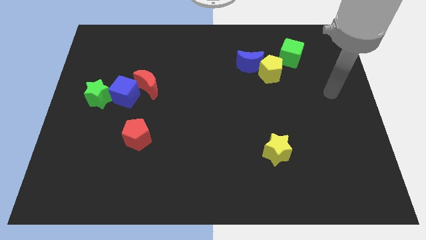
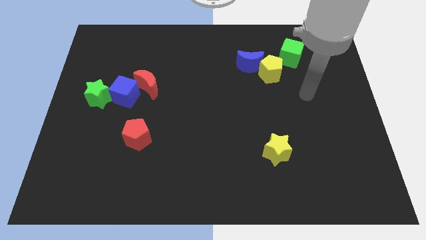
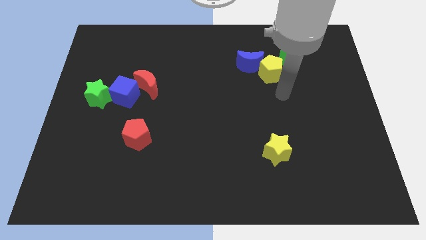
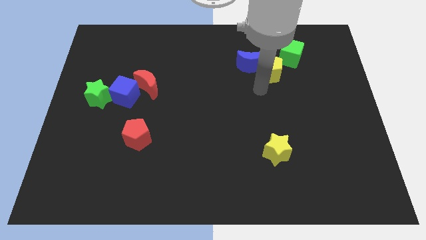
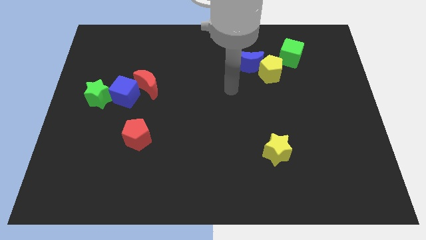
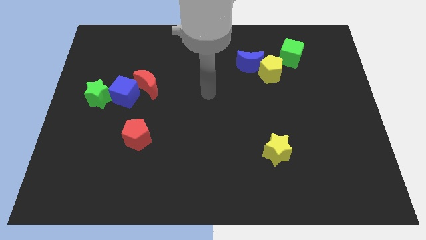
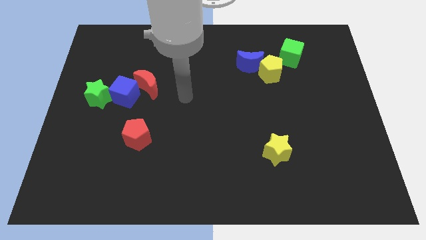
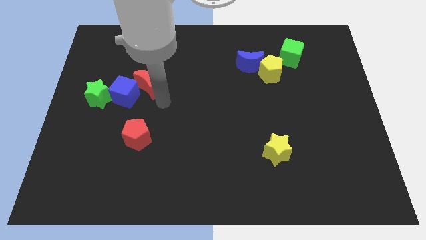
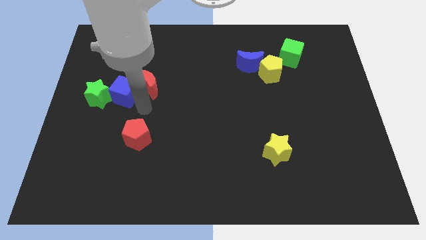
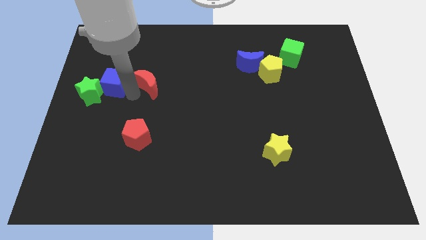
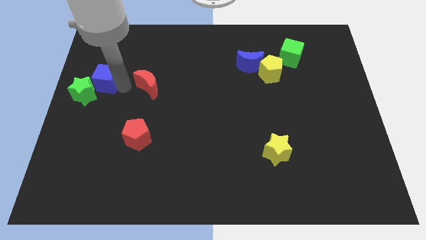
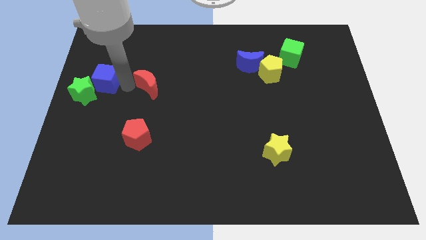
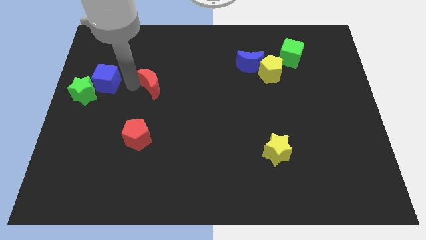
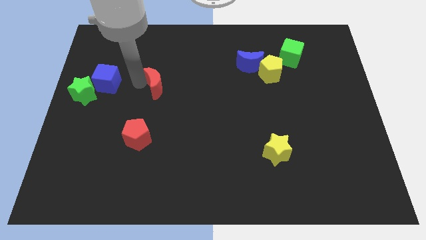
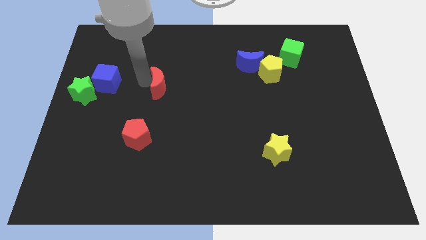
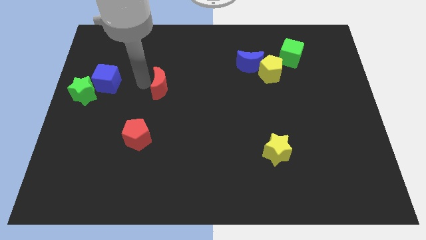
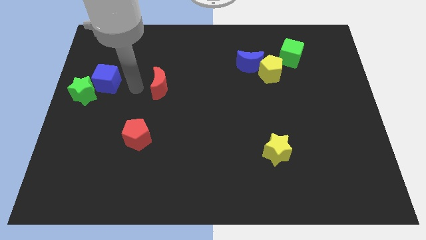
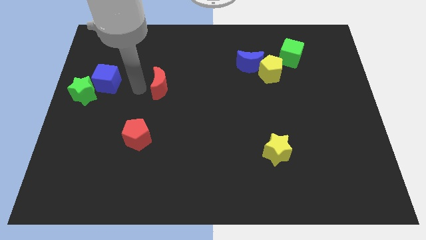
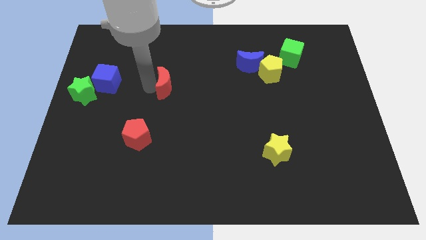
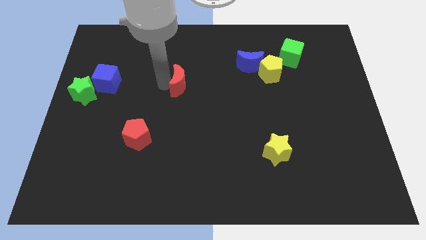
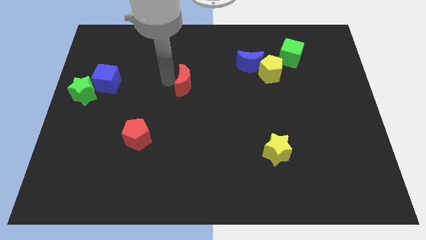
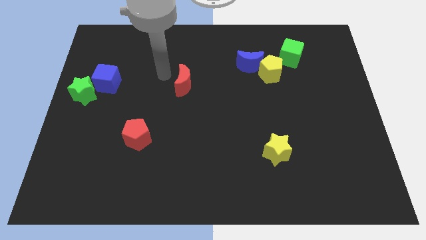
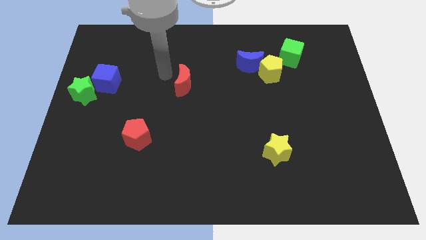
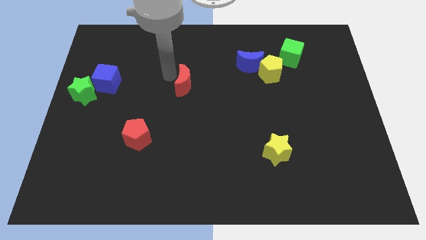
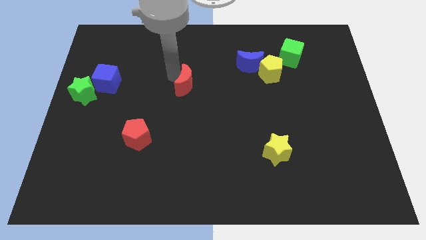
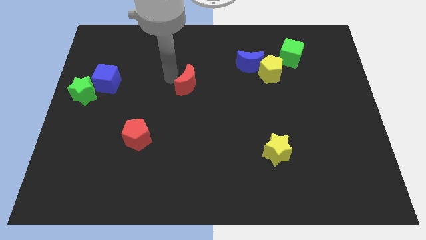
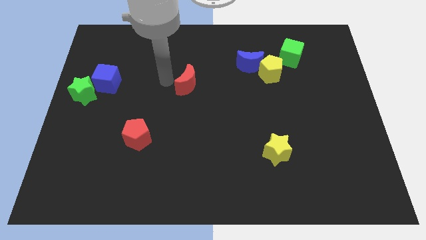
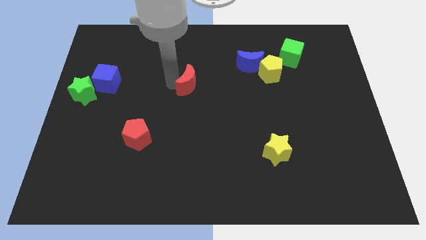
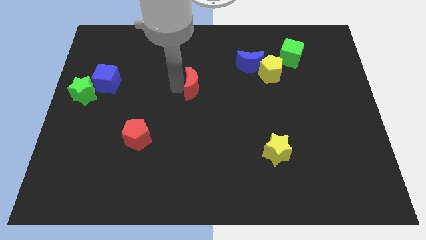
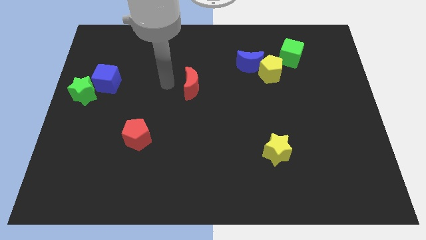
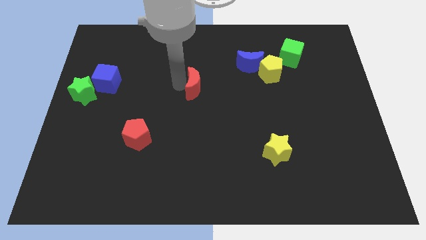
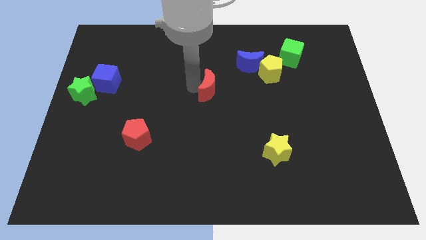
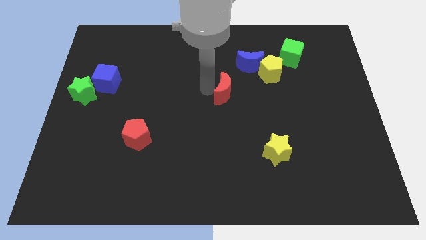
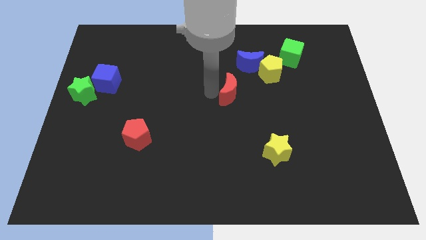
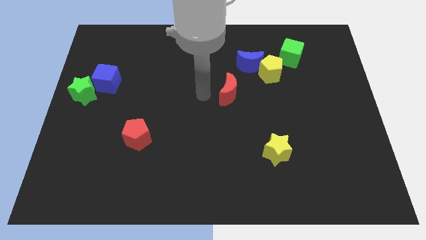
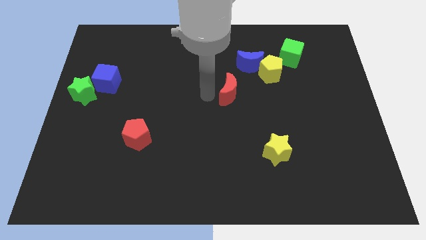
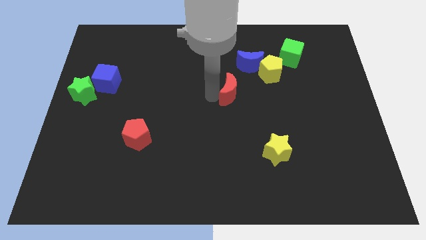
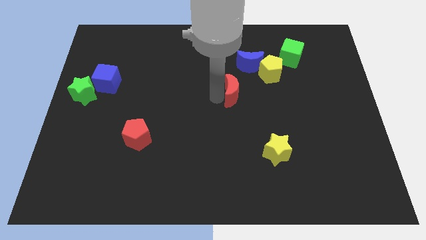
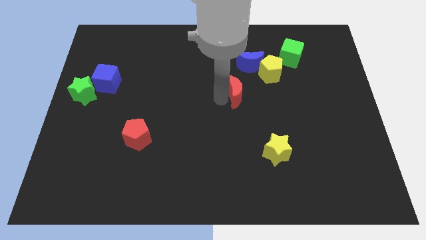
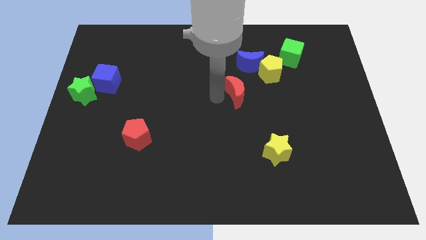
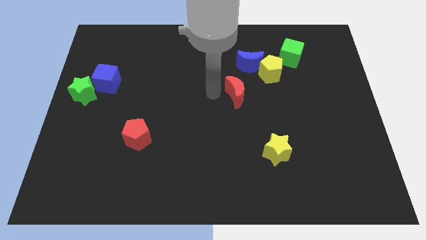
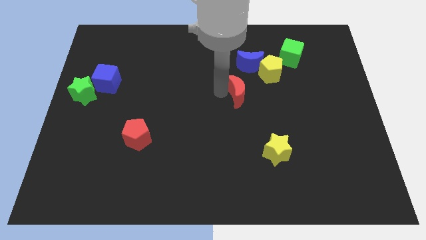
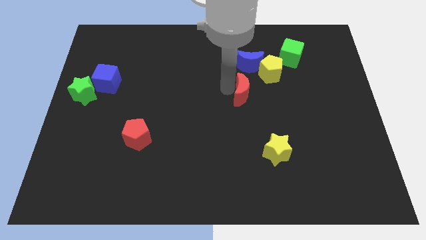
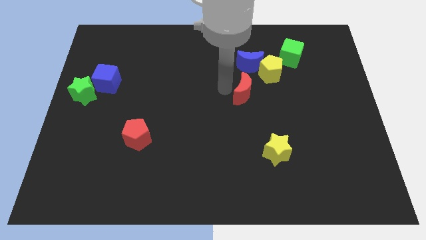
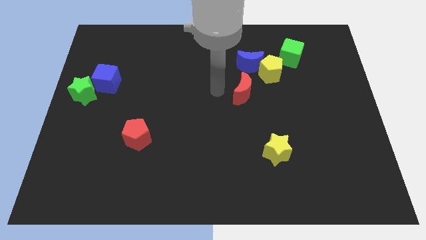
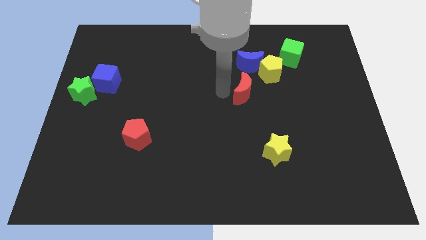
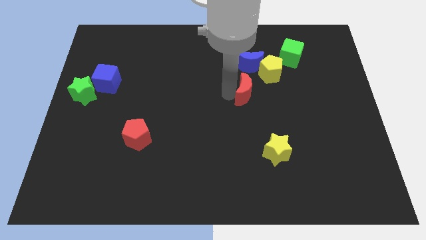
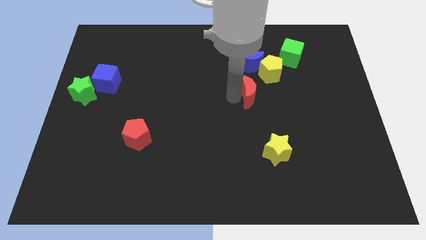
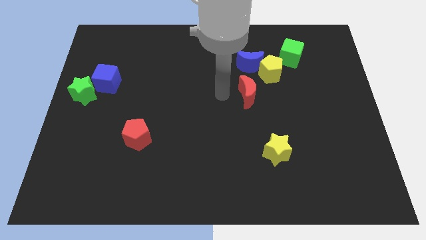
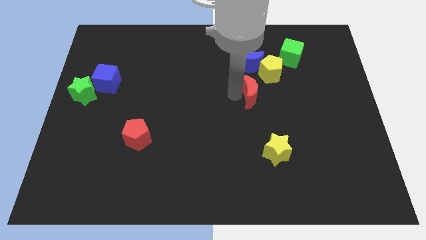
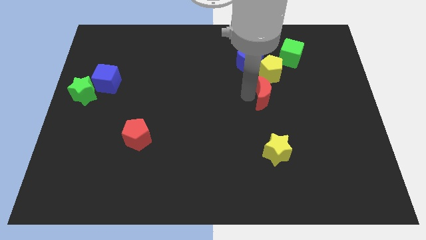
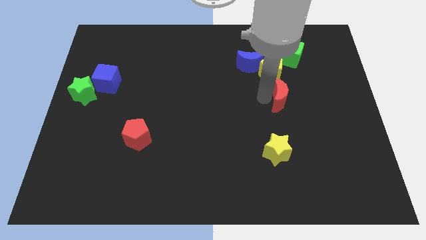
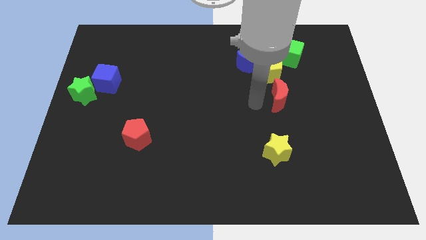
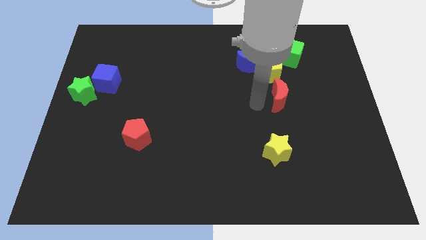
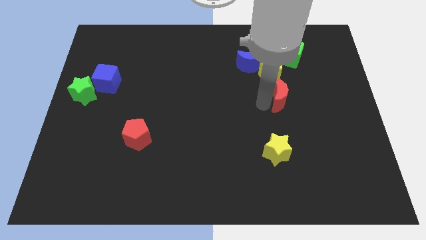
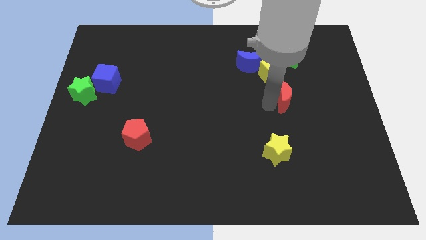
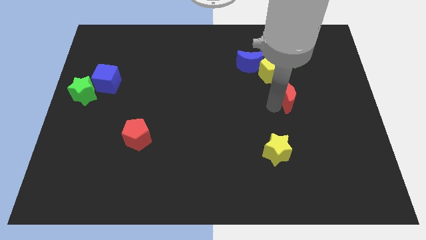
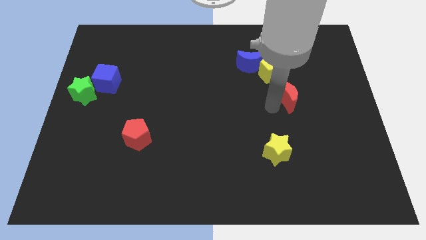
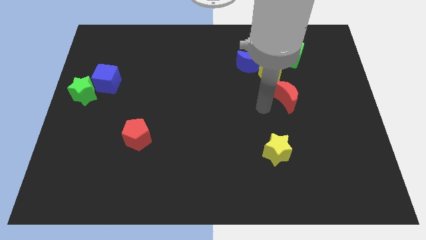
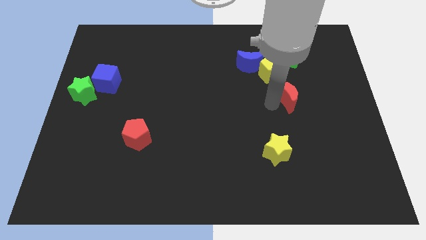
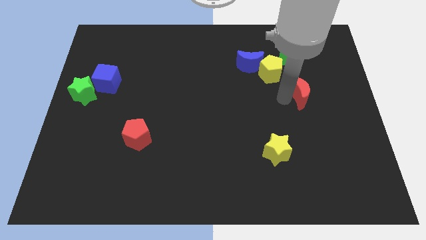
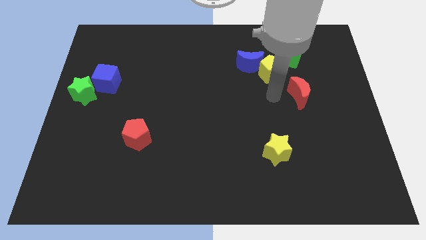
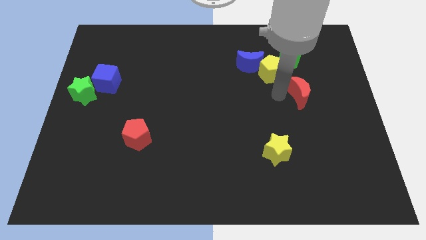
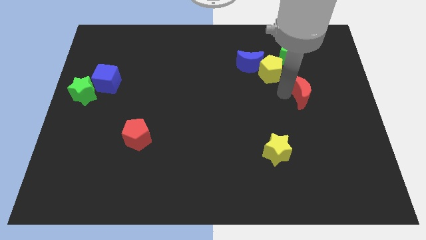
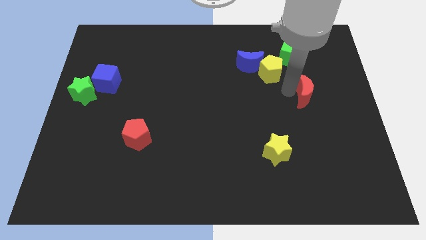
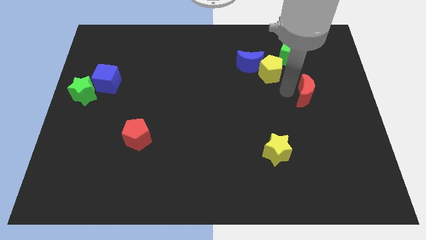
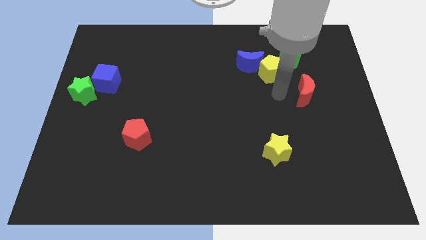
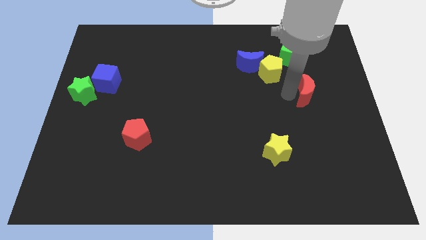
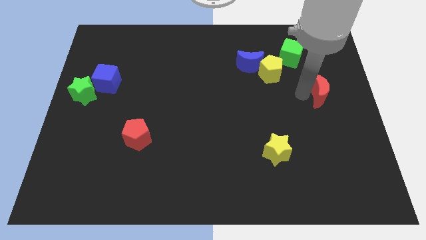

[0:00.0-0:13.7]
slide the red moon to the center right
